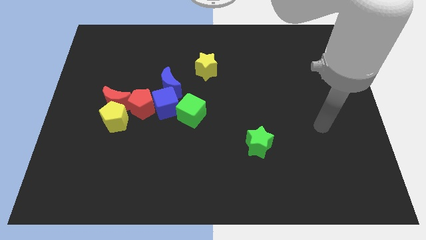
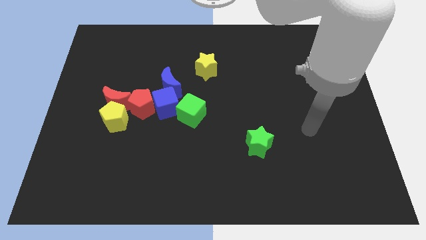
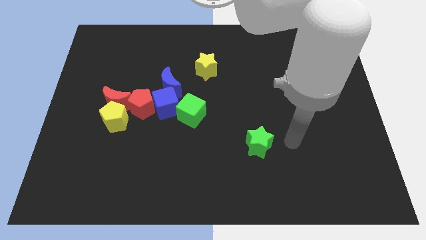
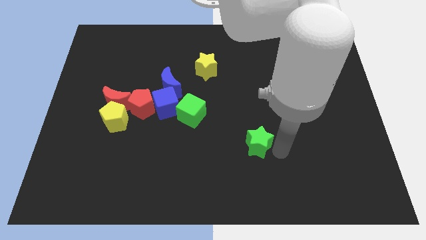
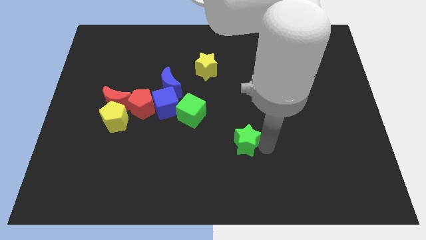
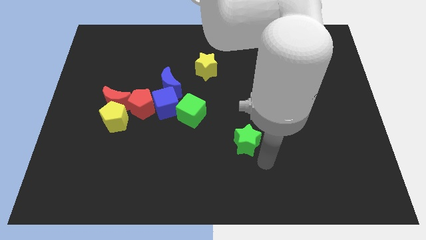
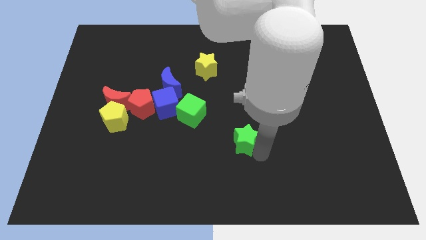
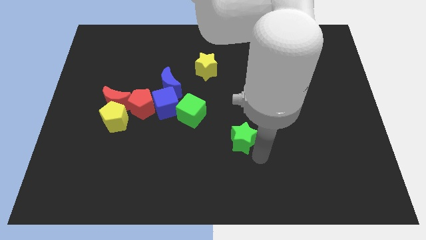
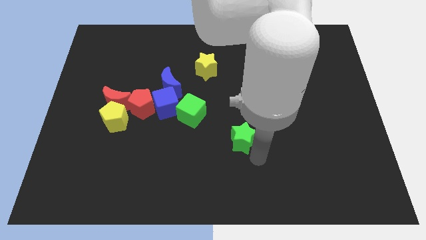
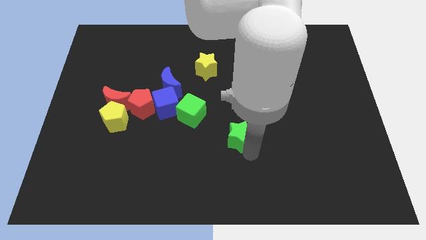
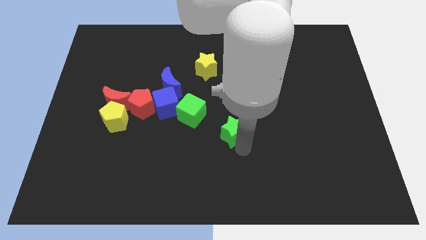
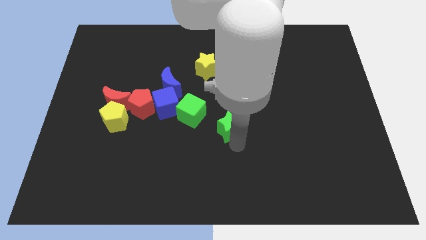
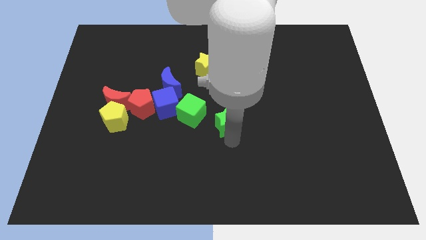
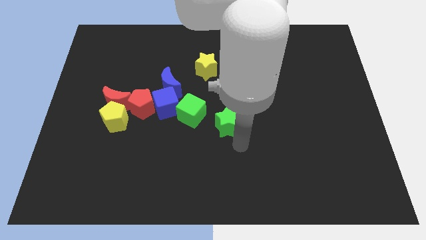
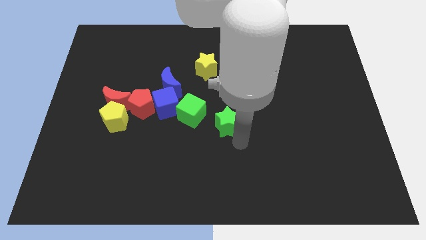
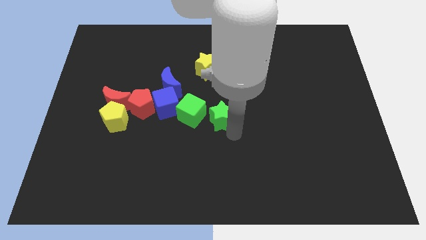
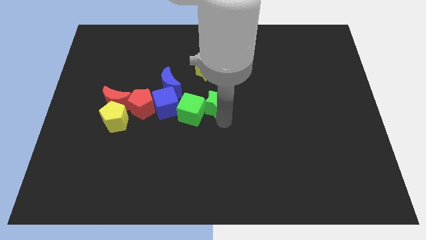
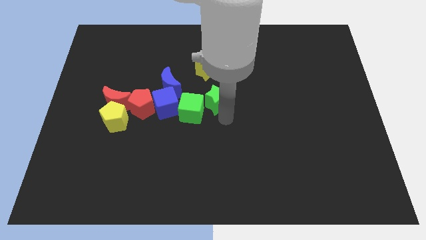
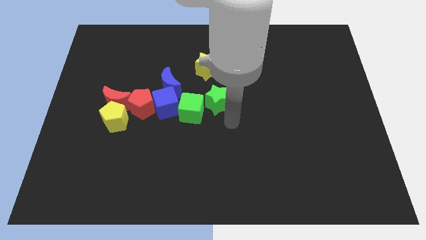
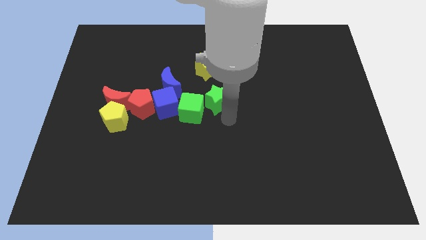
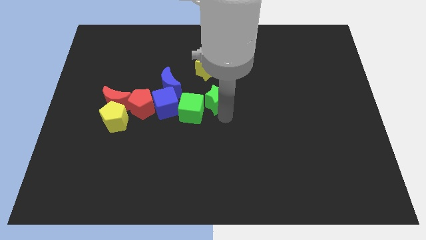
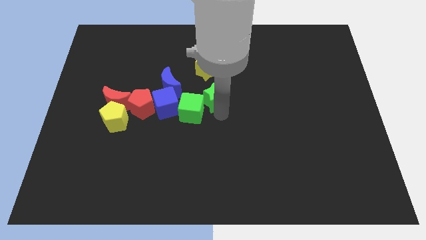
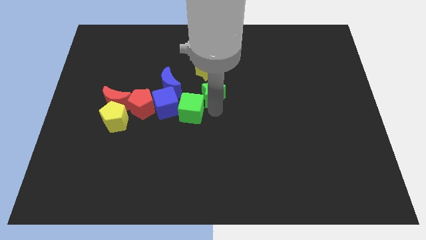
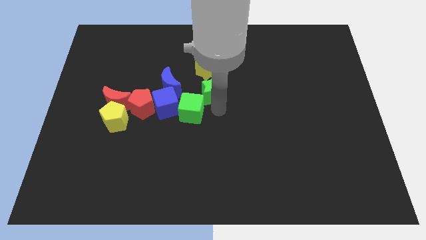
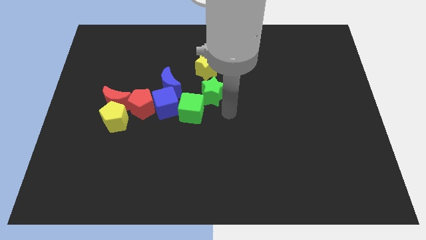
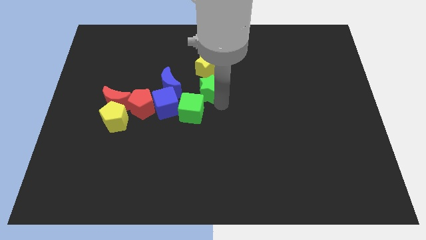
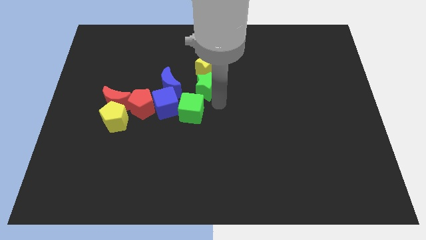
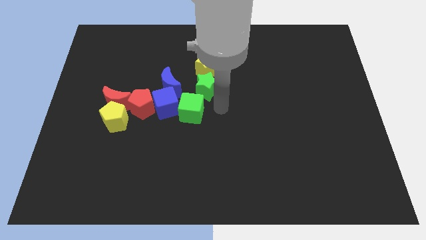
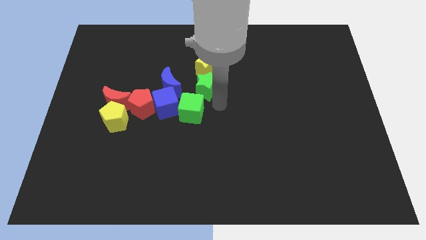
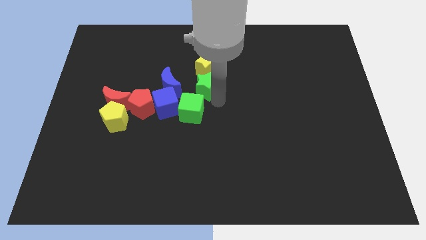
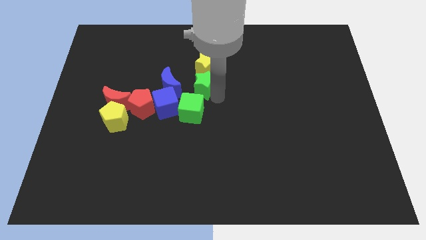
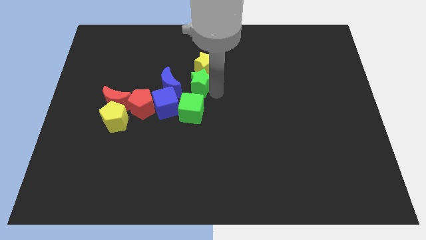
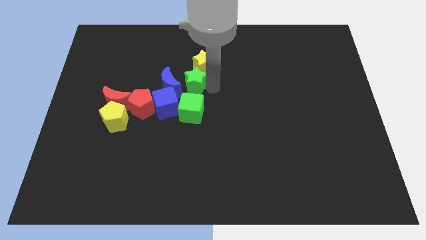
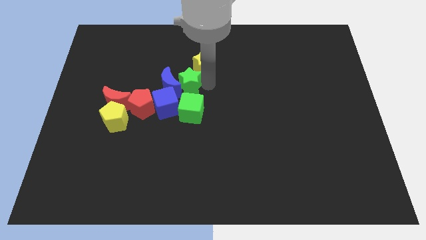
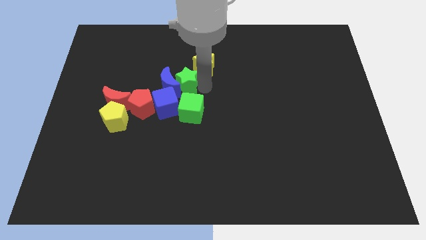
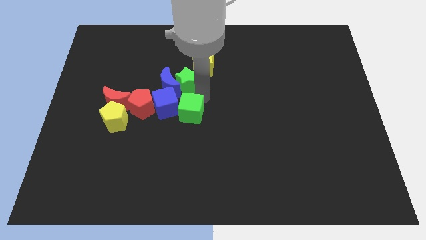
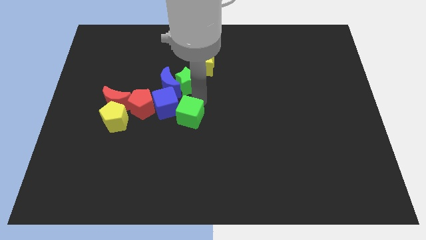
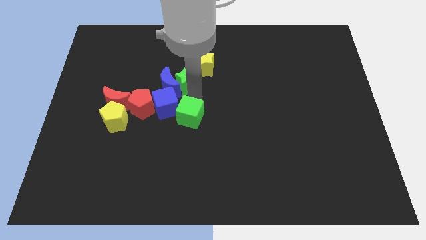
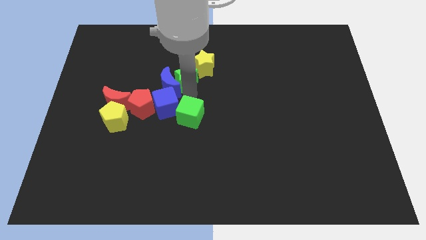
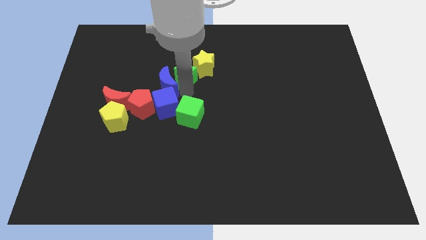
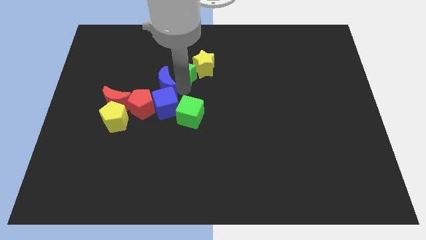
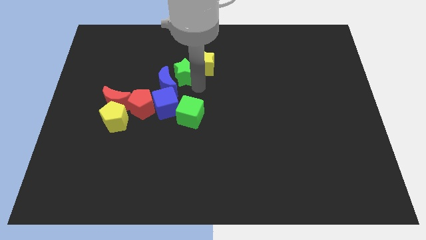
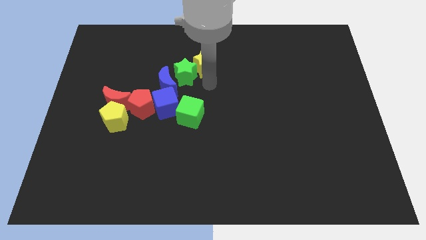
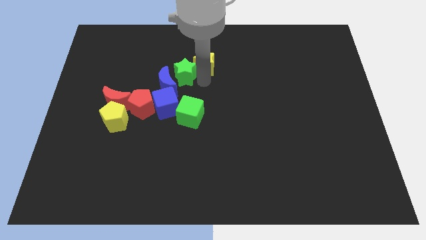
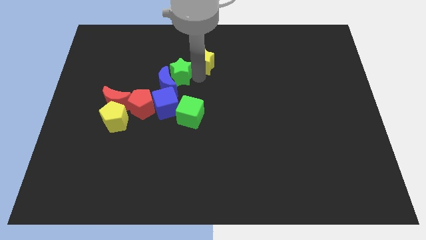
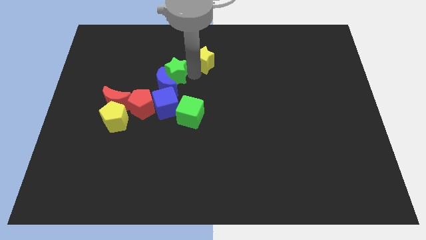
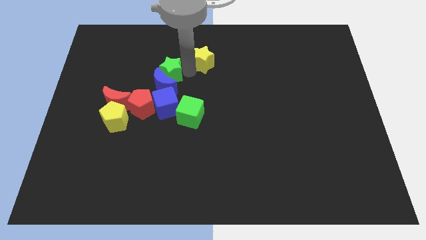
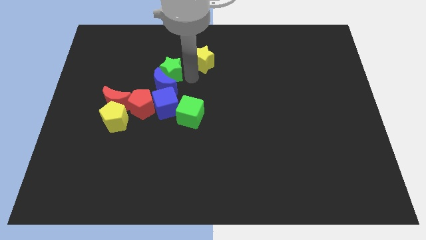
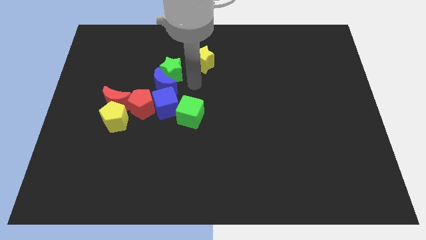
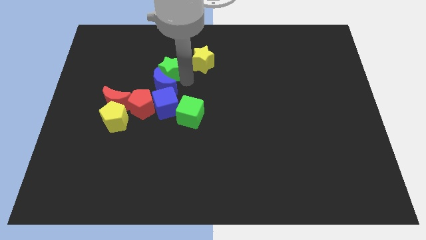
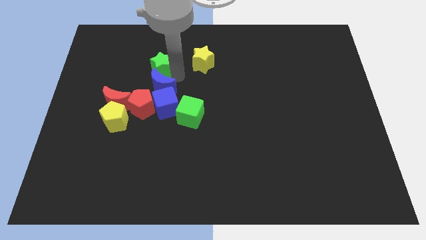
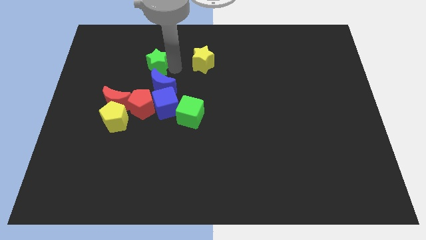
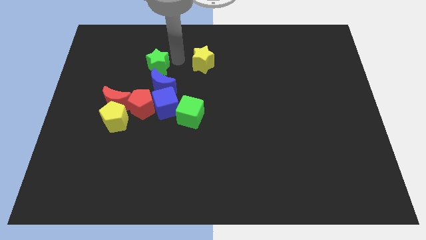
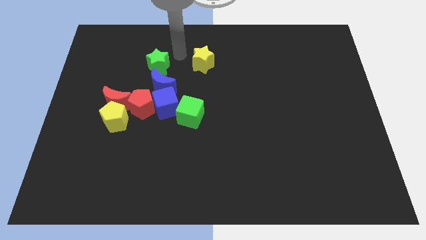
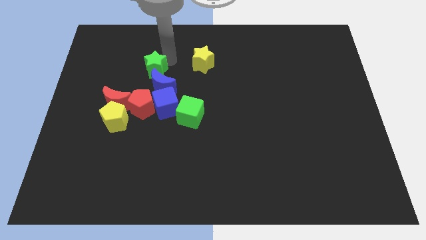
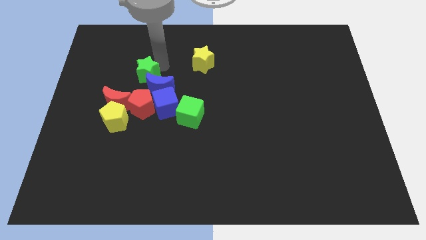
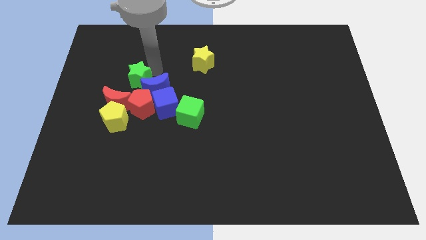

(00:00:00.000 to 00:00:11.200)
put the green star just left of the blue moon

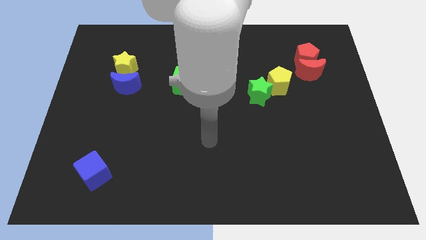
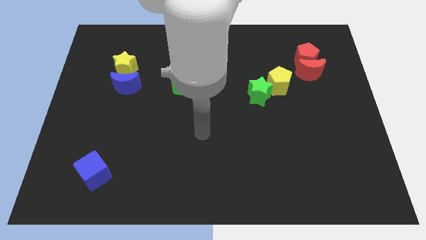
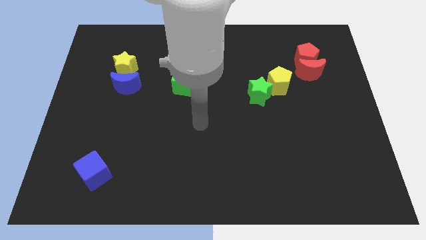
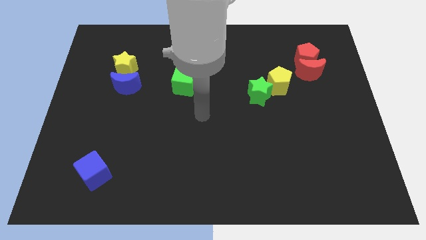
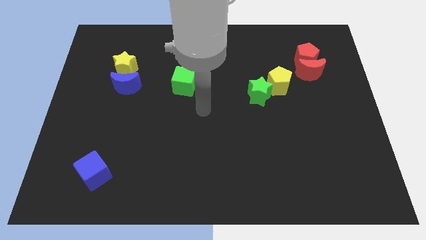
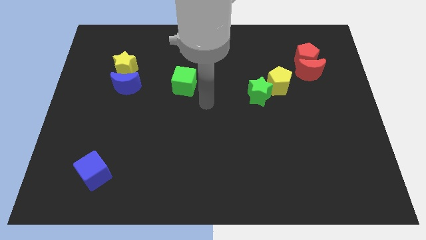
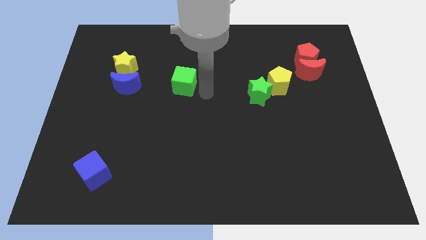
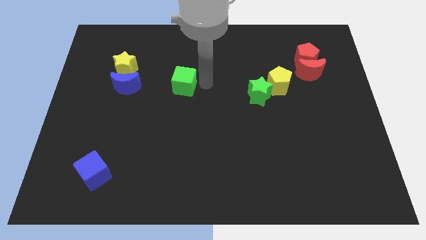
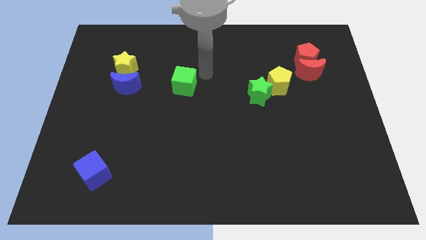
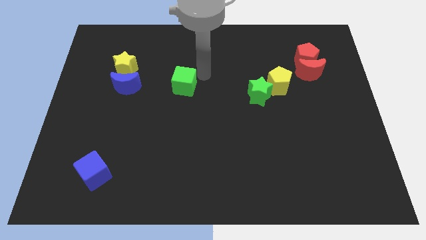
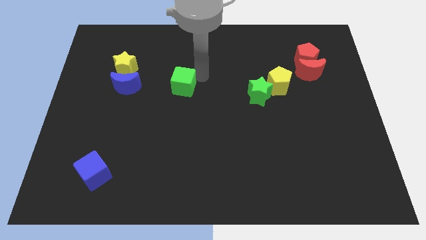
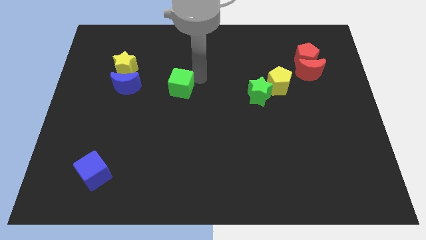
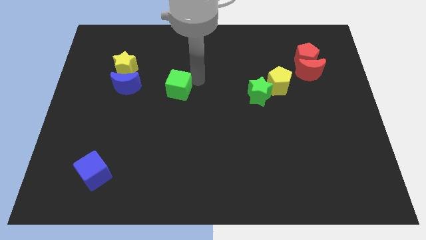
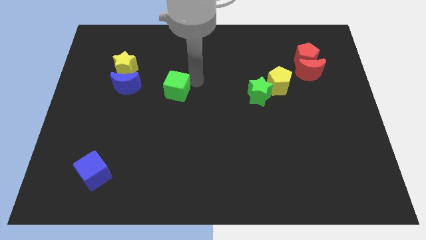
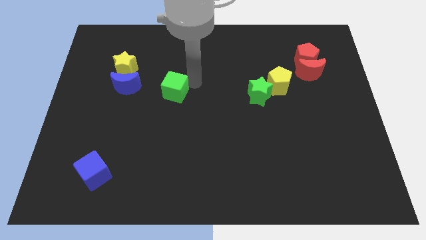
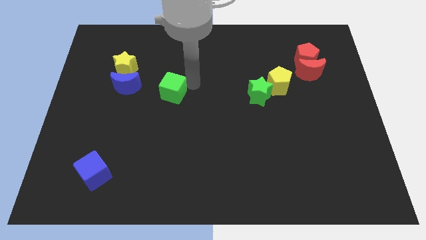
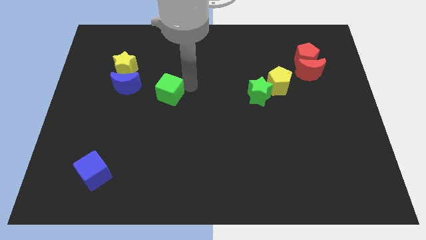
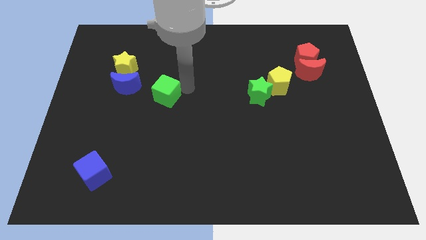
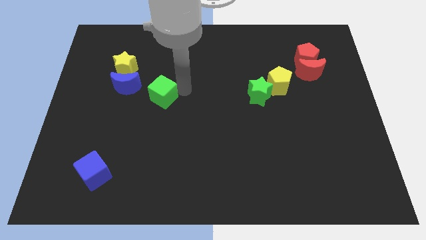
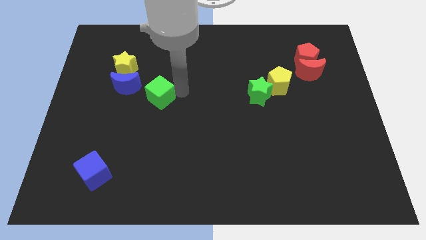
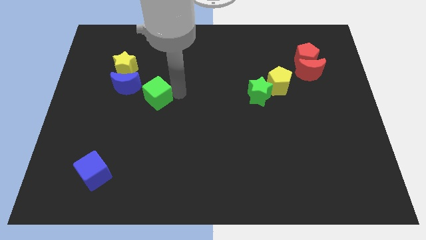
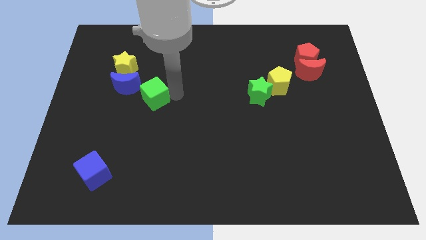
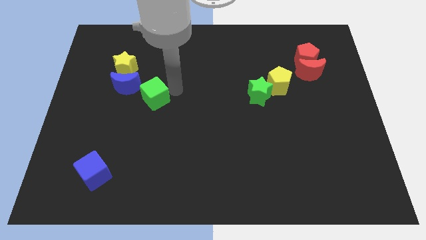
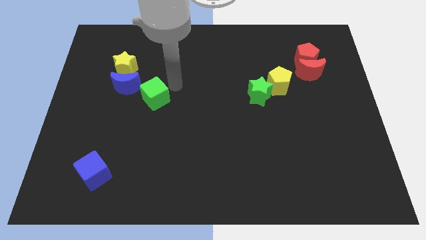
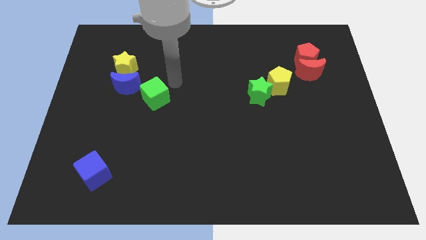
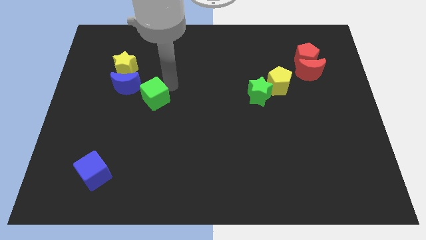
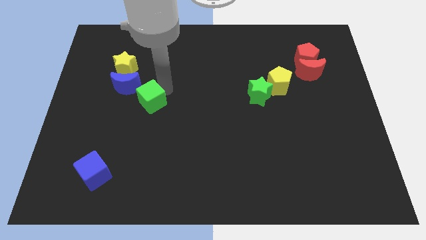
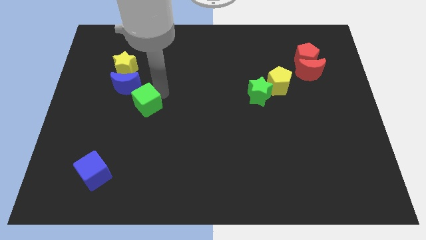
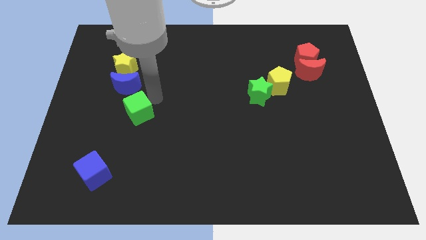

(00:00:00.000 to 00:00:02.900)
move the green cube to the bottom of the blue moon
